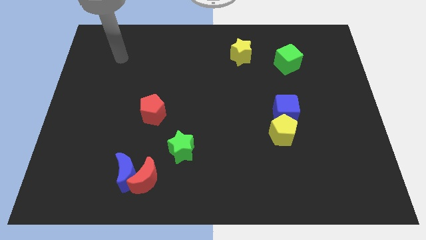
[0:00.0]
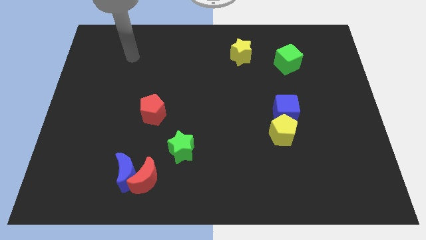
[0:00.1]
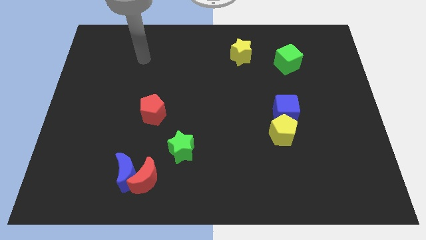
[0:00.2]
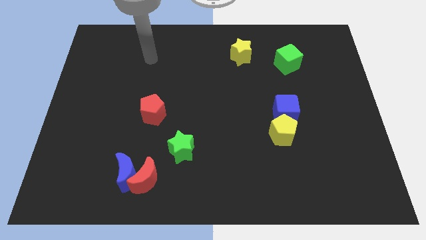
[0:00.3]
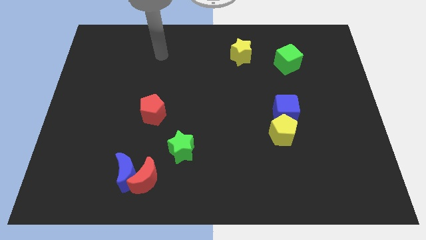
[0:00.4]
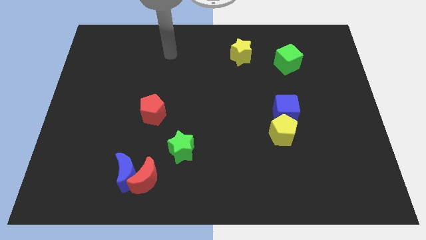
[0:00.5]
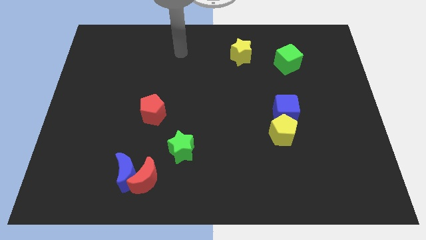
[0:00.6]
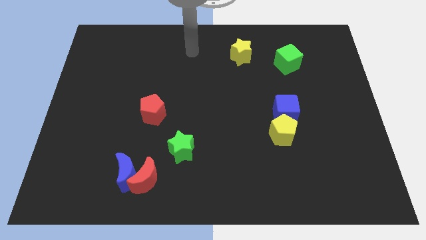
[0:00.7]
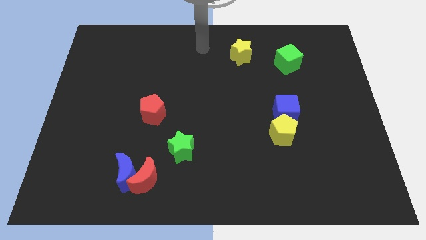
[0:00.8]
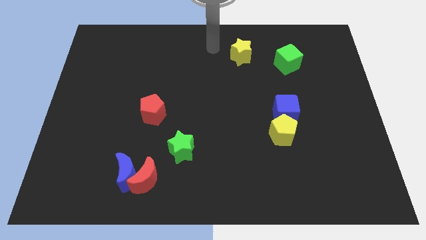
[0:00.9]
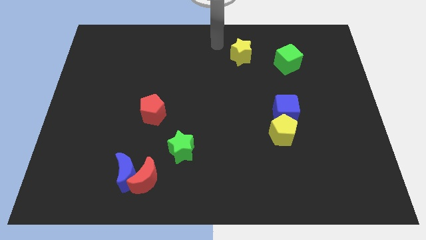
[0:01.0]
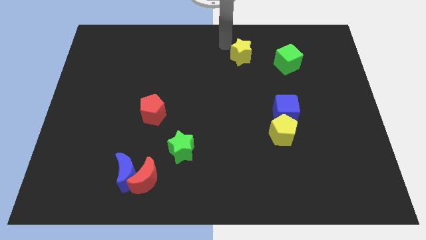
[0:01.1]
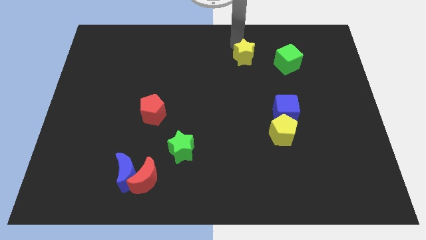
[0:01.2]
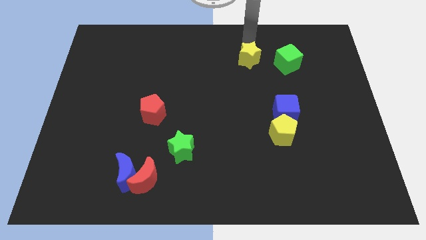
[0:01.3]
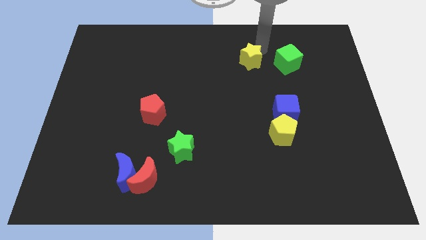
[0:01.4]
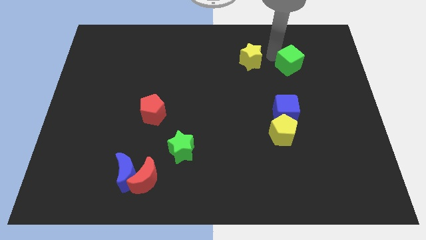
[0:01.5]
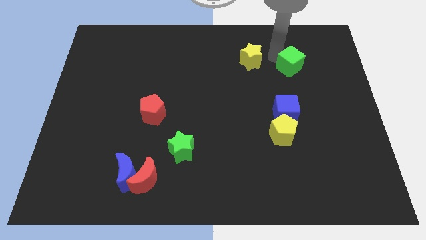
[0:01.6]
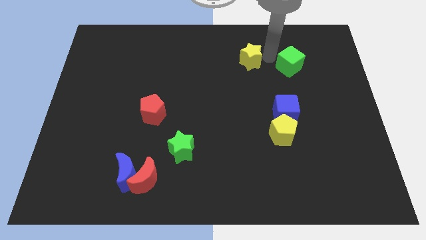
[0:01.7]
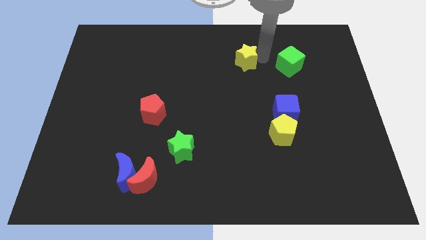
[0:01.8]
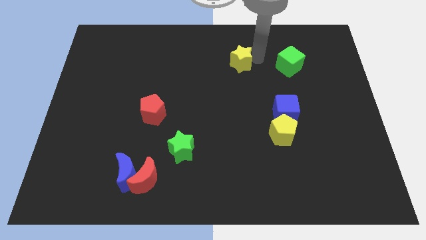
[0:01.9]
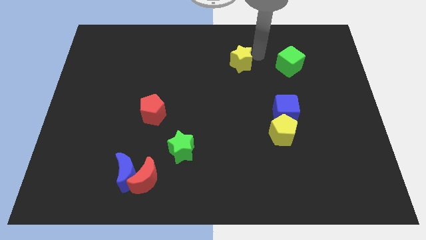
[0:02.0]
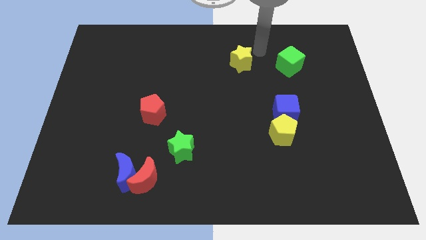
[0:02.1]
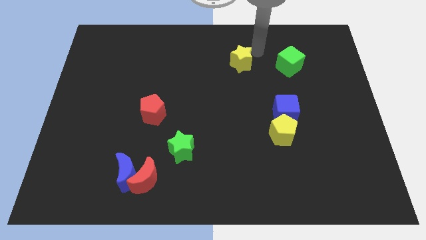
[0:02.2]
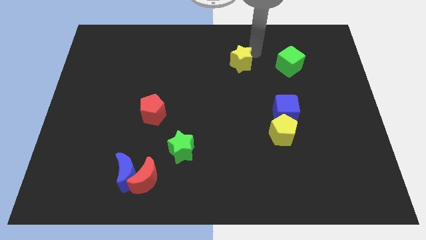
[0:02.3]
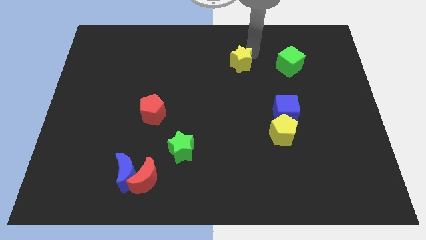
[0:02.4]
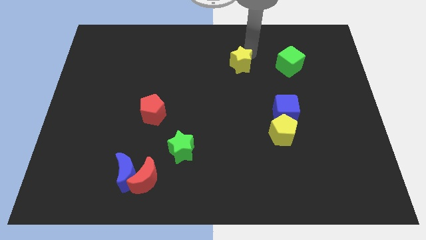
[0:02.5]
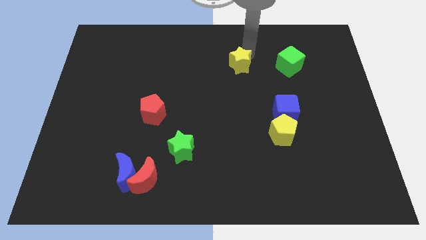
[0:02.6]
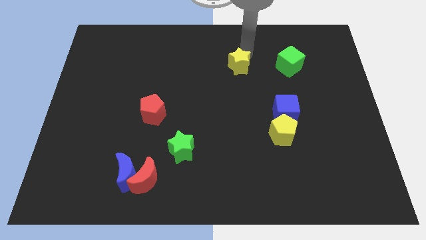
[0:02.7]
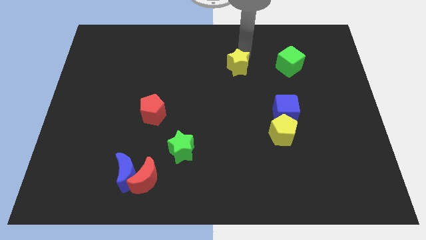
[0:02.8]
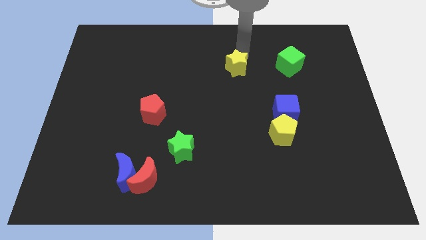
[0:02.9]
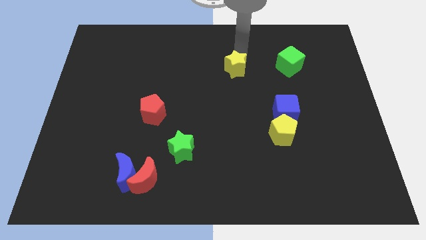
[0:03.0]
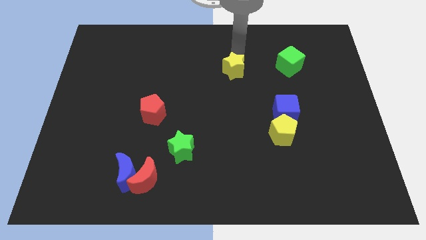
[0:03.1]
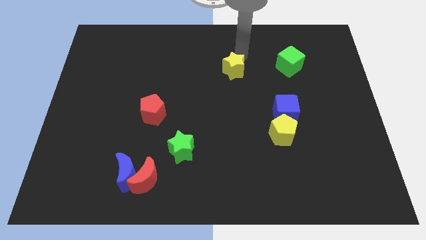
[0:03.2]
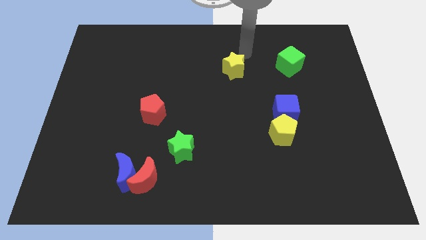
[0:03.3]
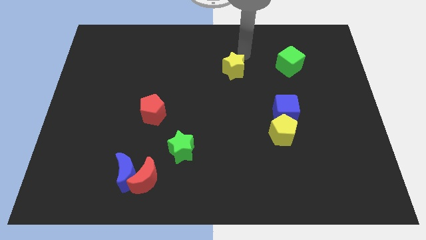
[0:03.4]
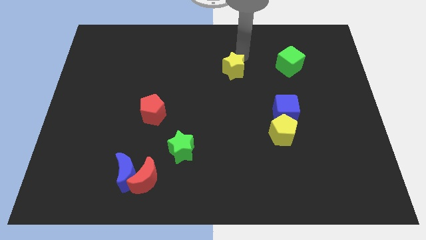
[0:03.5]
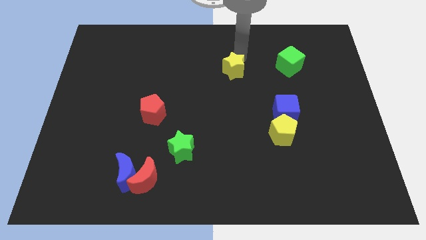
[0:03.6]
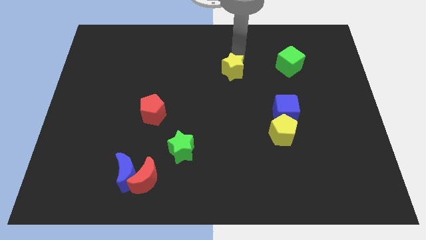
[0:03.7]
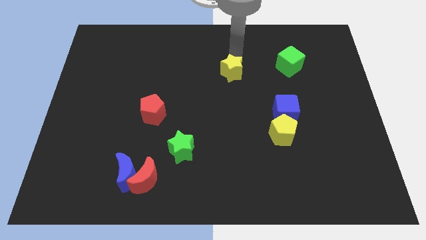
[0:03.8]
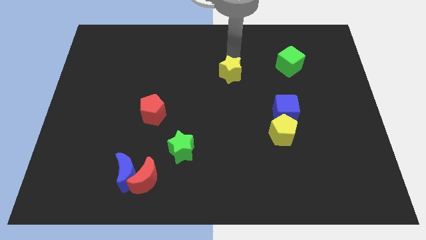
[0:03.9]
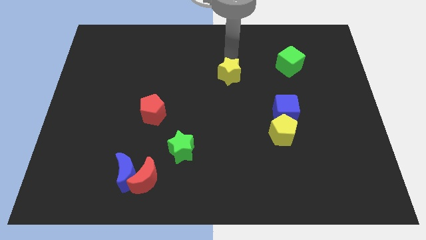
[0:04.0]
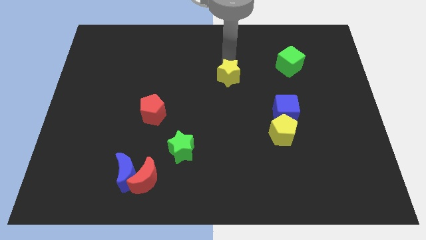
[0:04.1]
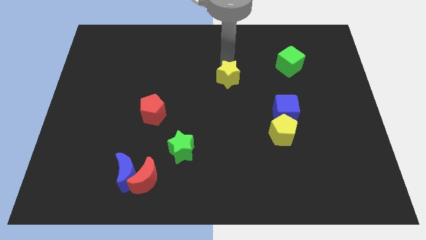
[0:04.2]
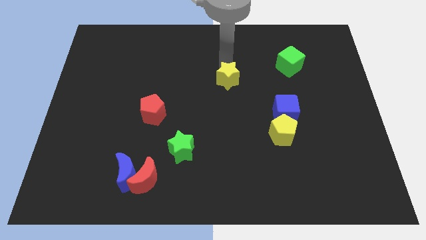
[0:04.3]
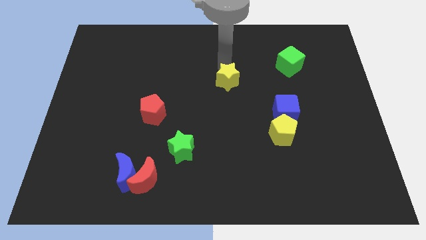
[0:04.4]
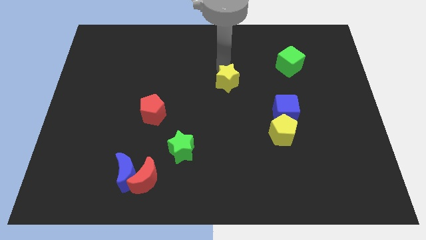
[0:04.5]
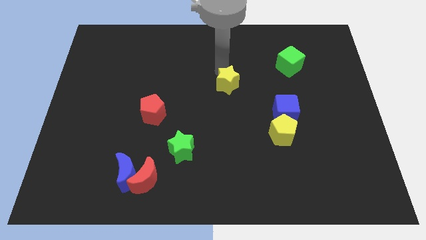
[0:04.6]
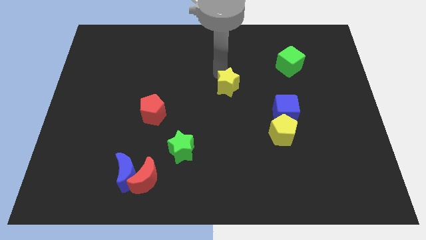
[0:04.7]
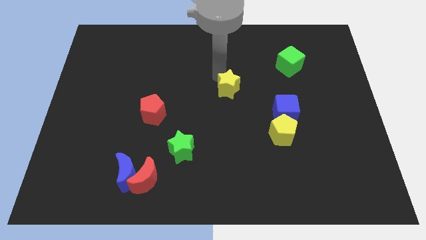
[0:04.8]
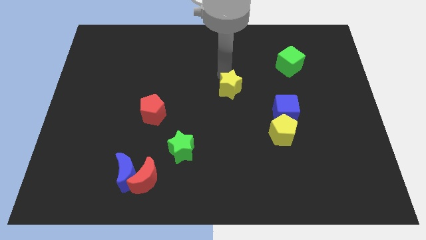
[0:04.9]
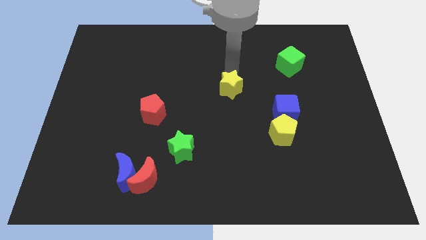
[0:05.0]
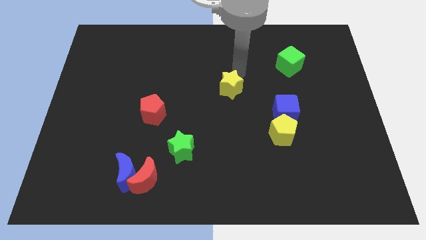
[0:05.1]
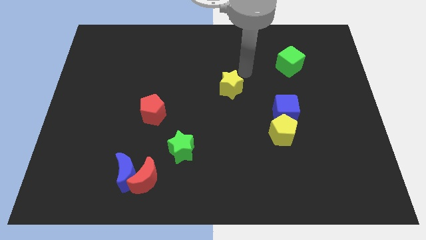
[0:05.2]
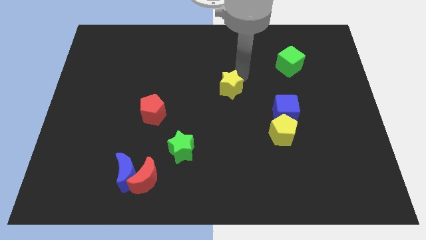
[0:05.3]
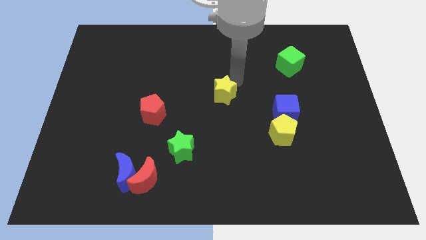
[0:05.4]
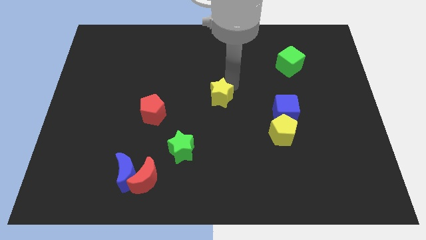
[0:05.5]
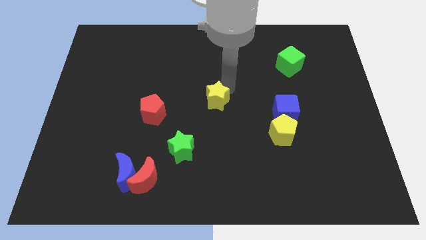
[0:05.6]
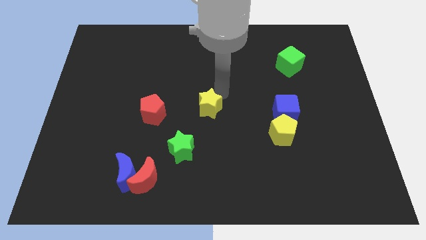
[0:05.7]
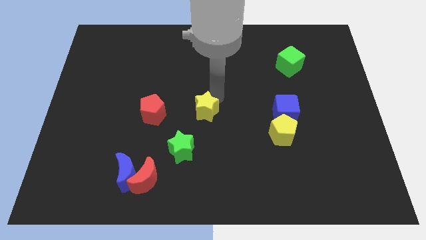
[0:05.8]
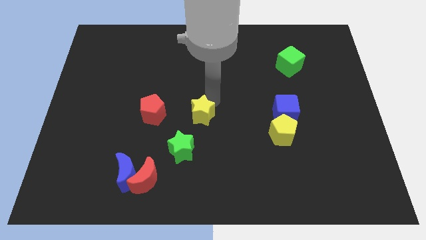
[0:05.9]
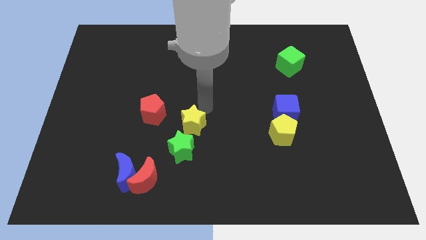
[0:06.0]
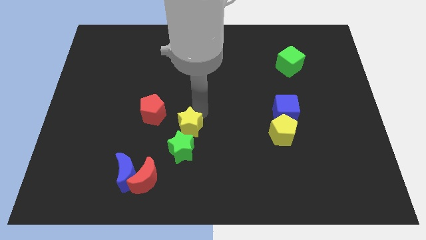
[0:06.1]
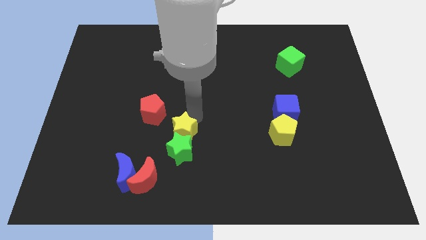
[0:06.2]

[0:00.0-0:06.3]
put the yellow star close to the green star

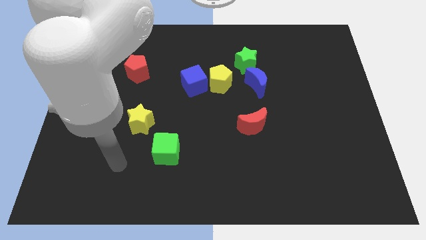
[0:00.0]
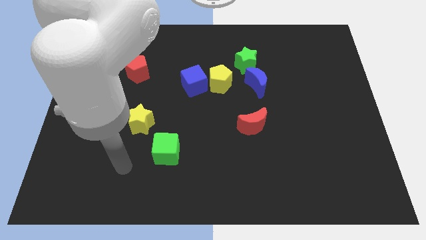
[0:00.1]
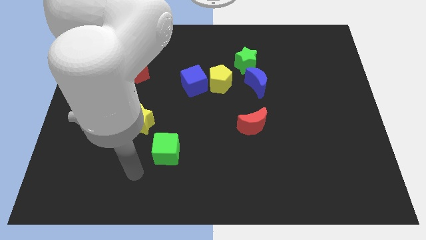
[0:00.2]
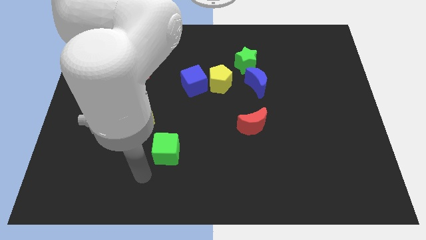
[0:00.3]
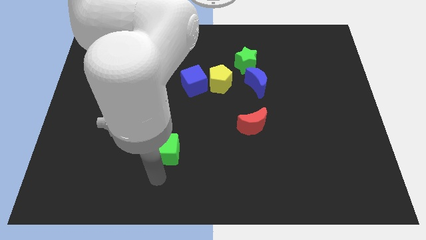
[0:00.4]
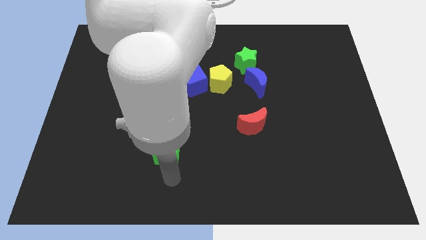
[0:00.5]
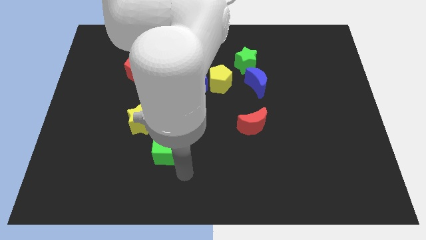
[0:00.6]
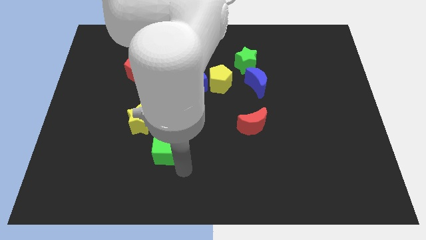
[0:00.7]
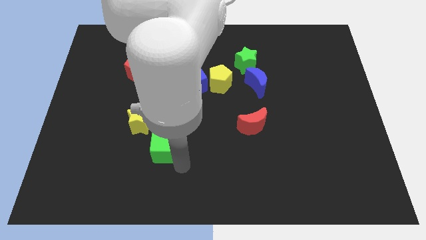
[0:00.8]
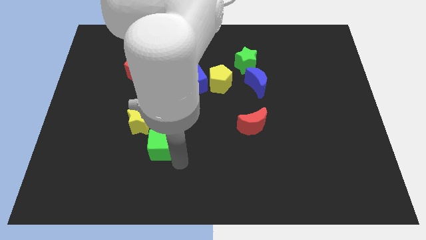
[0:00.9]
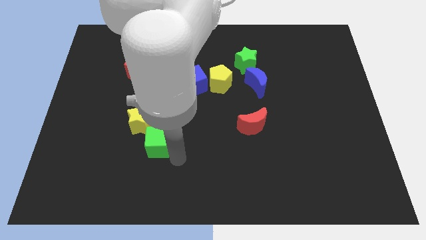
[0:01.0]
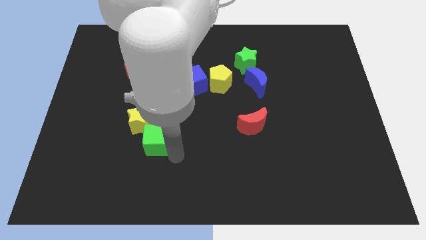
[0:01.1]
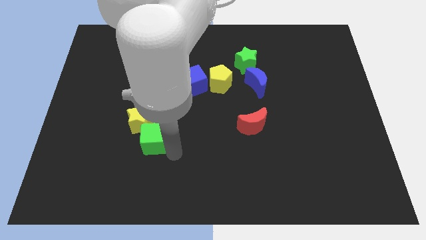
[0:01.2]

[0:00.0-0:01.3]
slide the green cube next to the yellow star
